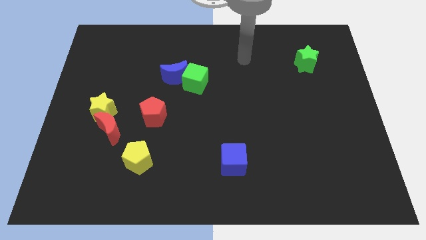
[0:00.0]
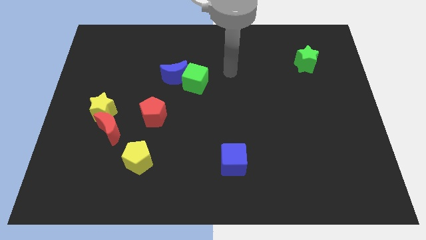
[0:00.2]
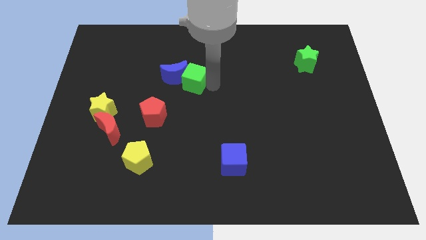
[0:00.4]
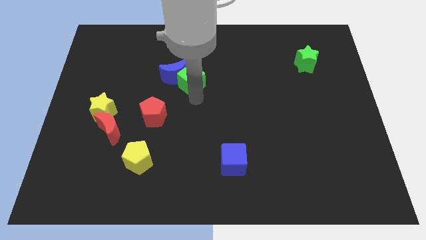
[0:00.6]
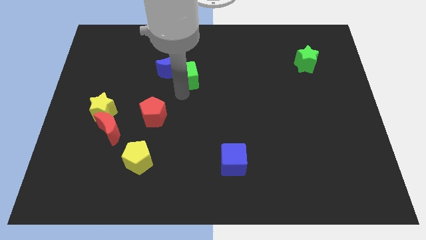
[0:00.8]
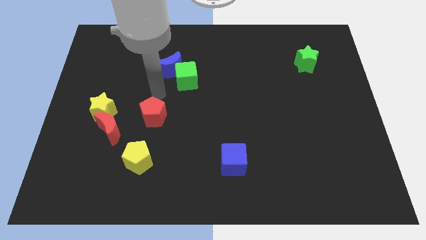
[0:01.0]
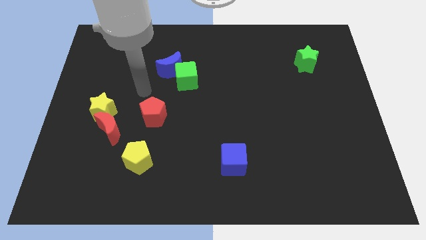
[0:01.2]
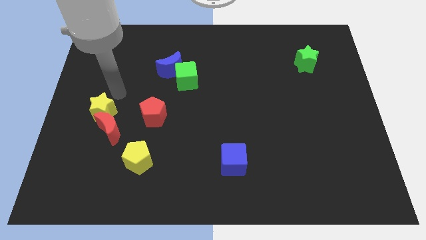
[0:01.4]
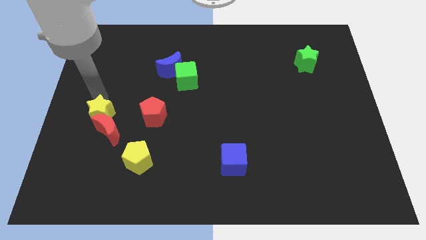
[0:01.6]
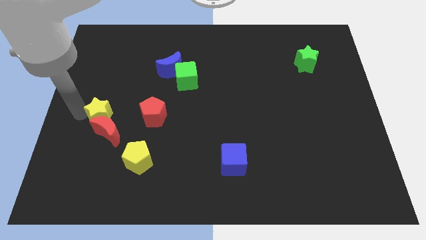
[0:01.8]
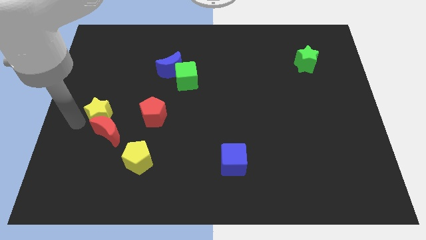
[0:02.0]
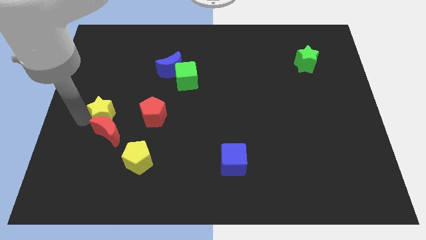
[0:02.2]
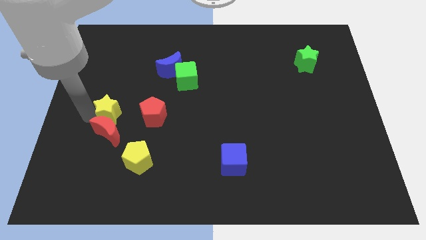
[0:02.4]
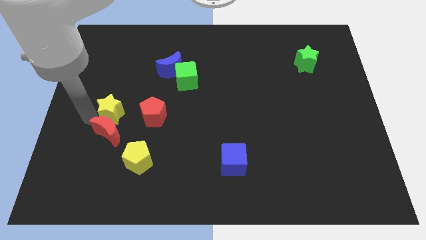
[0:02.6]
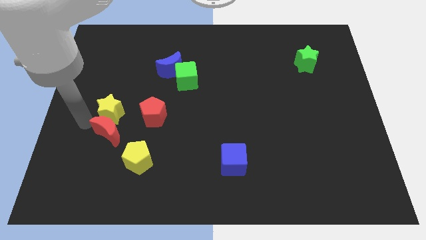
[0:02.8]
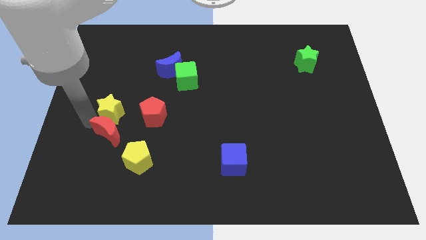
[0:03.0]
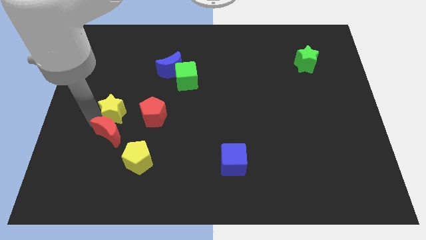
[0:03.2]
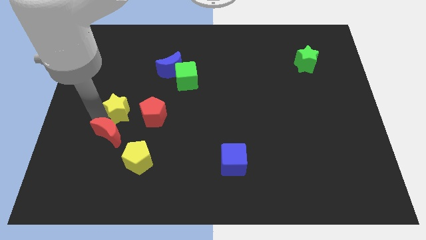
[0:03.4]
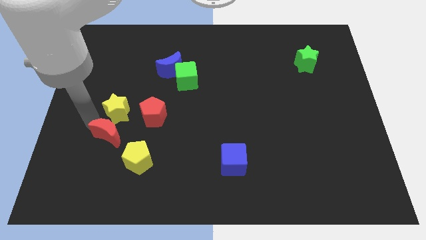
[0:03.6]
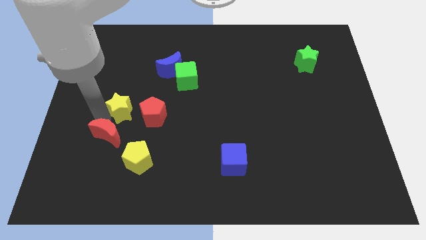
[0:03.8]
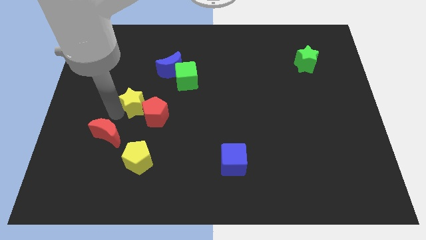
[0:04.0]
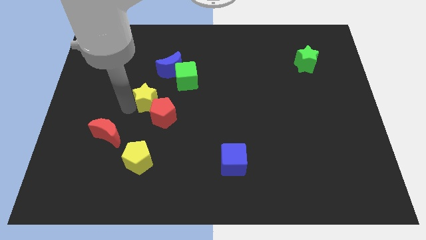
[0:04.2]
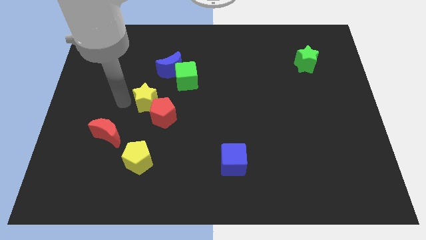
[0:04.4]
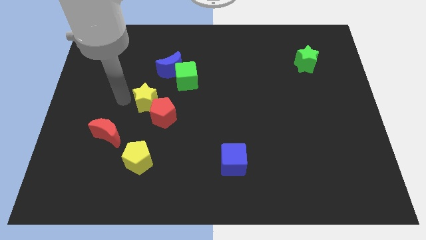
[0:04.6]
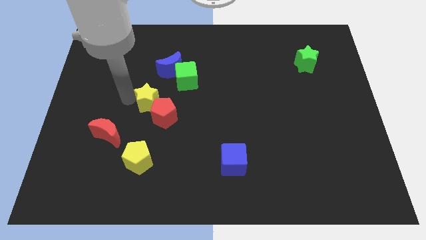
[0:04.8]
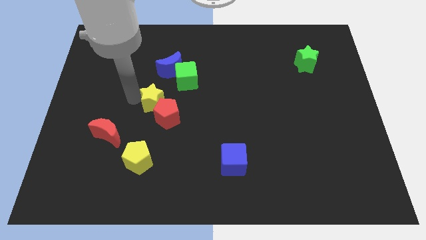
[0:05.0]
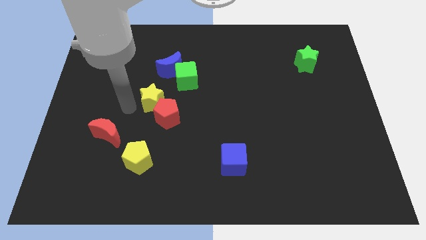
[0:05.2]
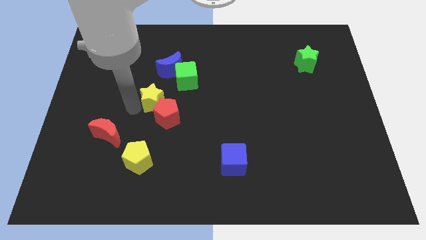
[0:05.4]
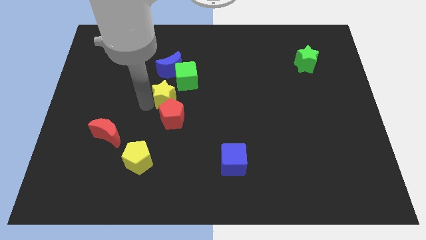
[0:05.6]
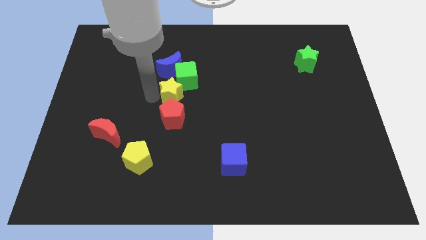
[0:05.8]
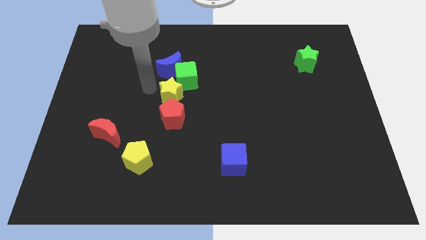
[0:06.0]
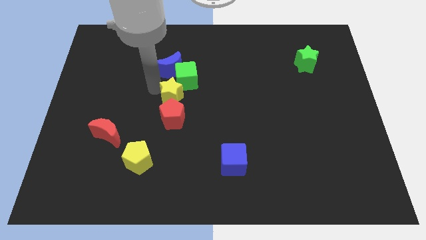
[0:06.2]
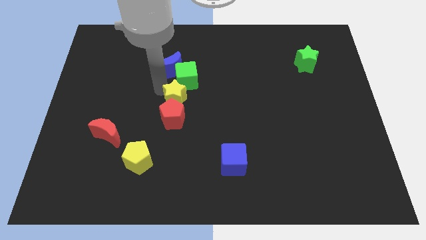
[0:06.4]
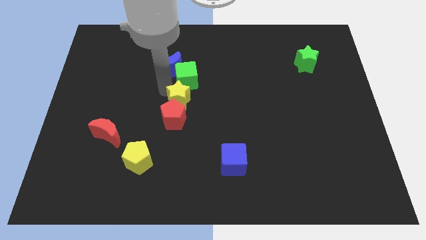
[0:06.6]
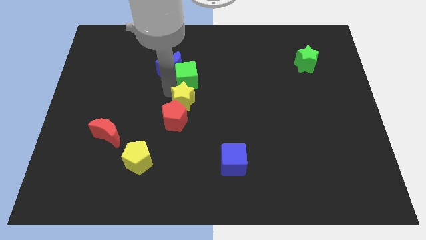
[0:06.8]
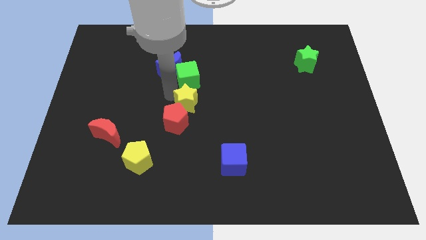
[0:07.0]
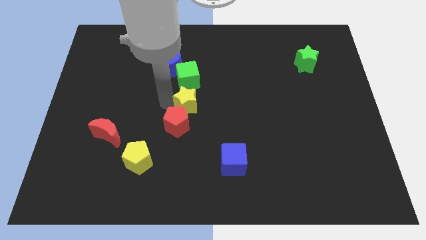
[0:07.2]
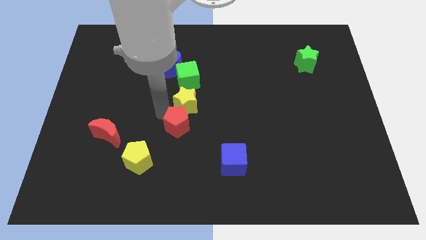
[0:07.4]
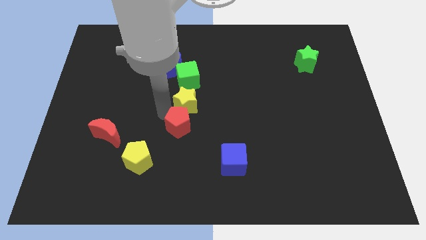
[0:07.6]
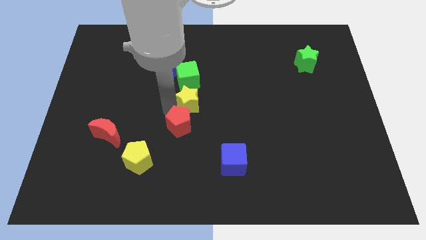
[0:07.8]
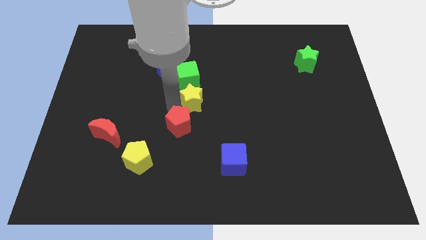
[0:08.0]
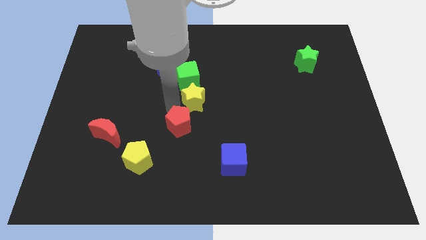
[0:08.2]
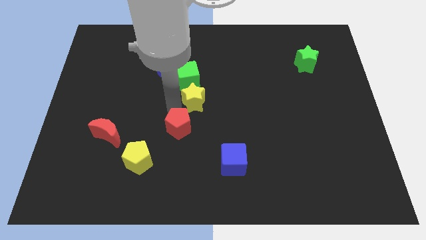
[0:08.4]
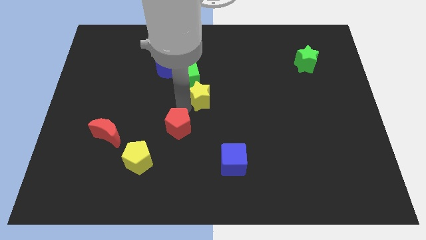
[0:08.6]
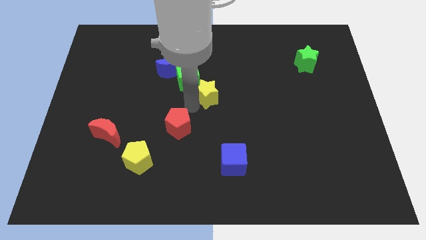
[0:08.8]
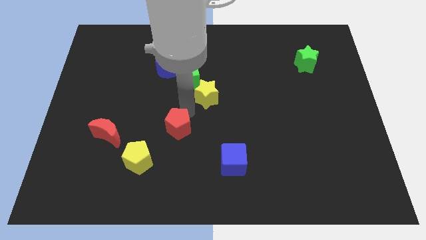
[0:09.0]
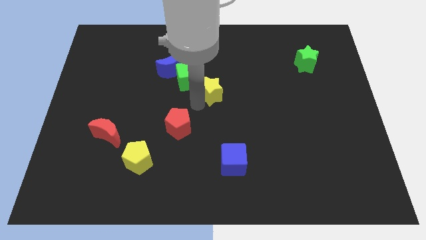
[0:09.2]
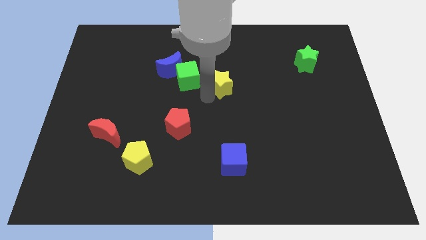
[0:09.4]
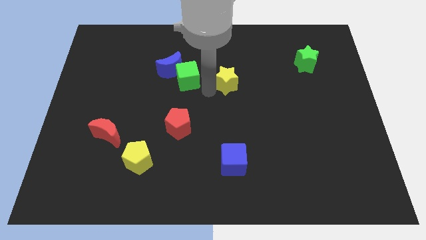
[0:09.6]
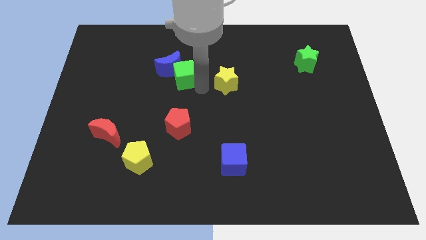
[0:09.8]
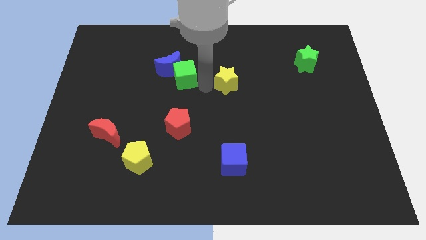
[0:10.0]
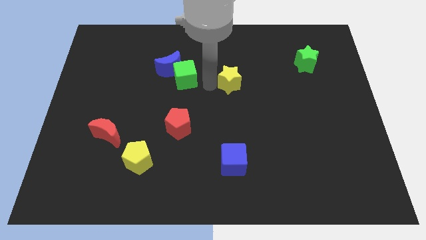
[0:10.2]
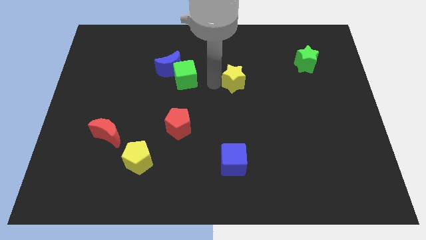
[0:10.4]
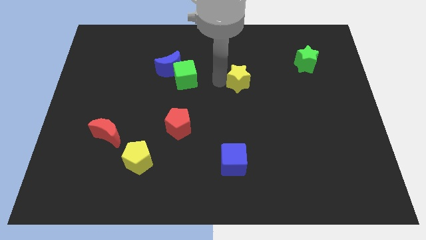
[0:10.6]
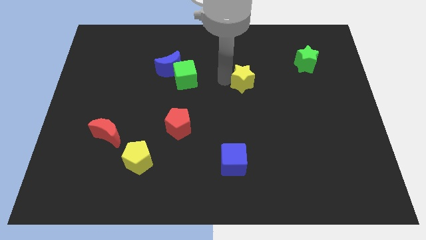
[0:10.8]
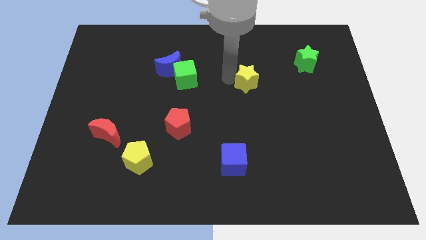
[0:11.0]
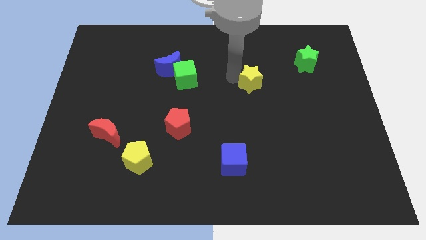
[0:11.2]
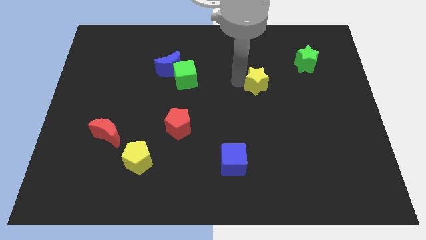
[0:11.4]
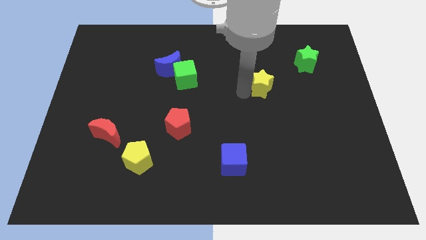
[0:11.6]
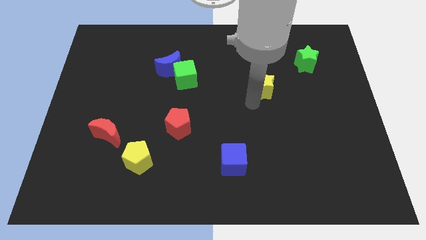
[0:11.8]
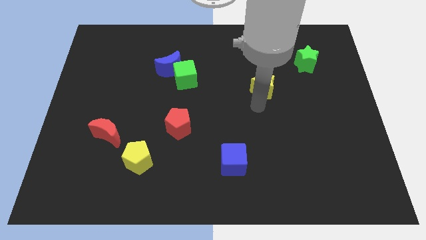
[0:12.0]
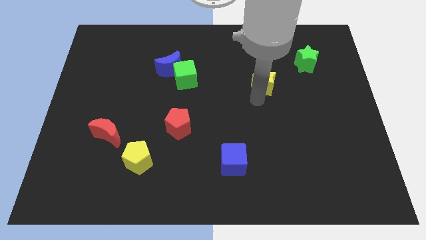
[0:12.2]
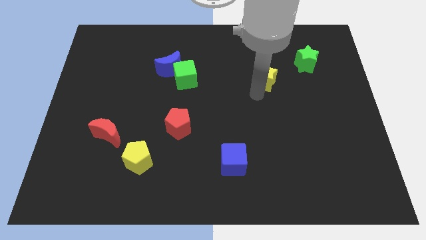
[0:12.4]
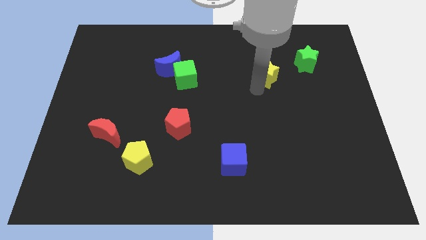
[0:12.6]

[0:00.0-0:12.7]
move the yellow star left of the green star

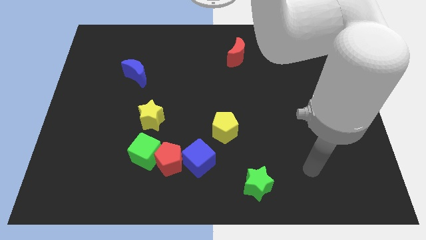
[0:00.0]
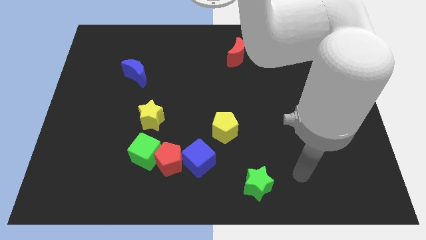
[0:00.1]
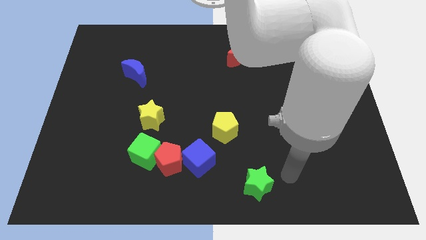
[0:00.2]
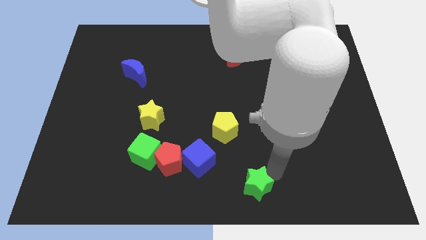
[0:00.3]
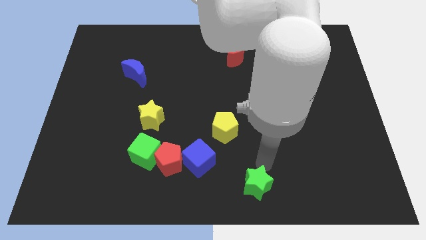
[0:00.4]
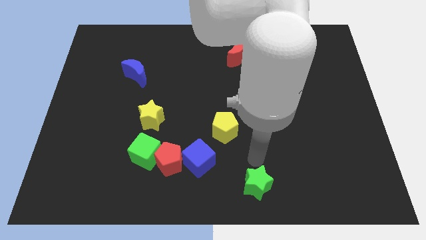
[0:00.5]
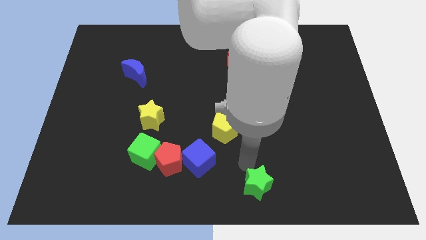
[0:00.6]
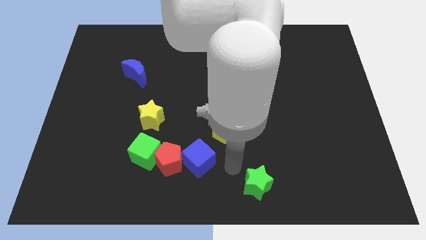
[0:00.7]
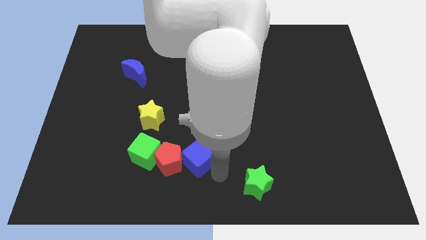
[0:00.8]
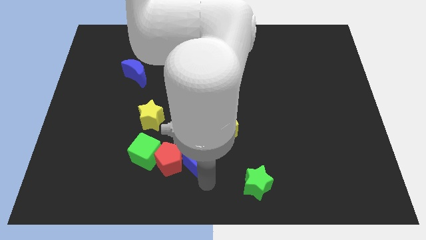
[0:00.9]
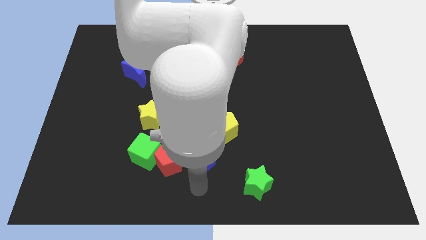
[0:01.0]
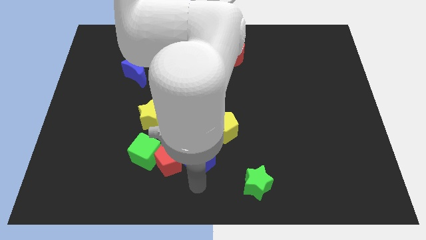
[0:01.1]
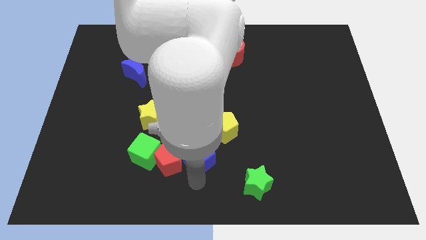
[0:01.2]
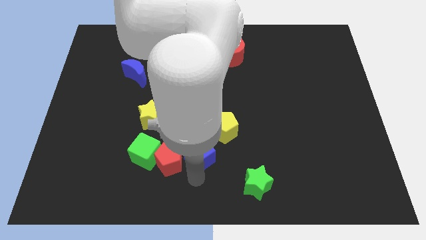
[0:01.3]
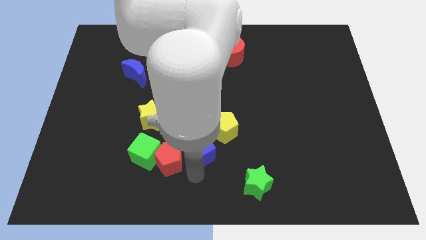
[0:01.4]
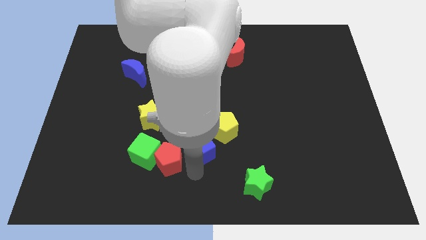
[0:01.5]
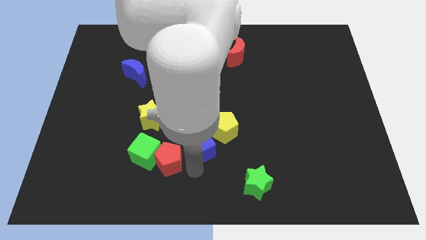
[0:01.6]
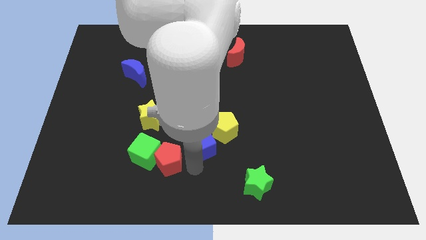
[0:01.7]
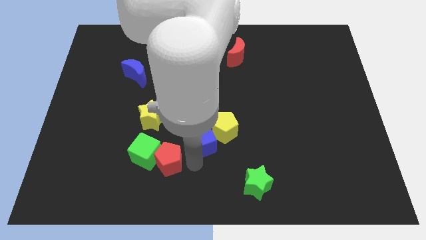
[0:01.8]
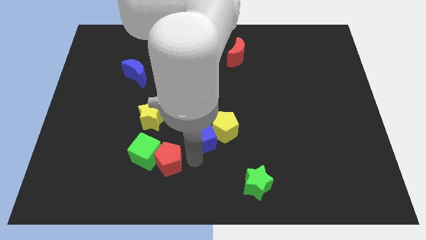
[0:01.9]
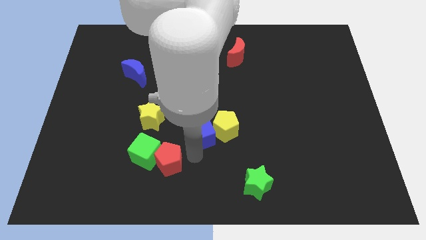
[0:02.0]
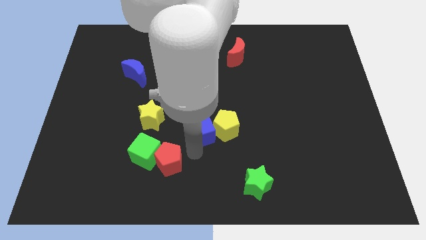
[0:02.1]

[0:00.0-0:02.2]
slide the blue cube diagonally up and to the left of the yellow pentagon
